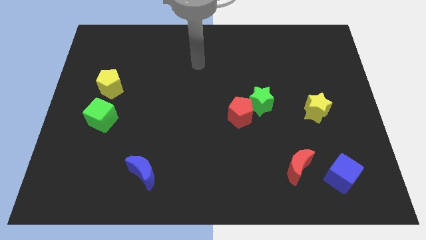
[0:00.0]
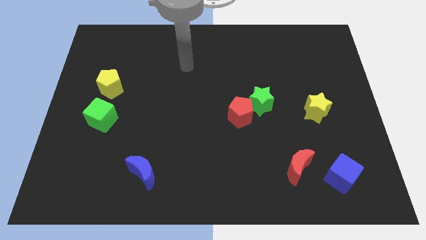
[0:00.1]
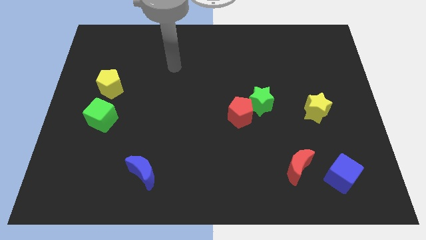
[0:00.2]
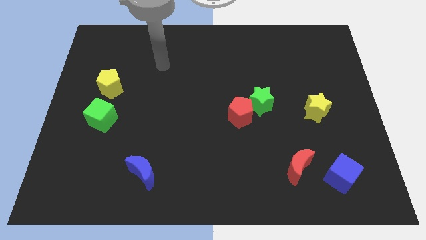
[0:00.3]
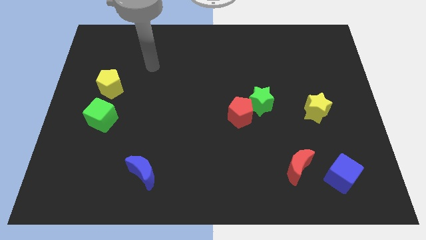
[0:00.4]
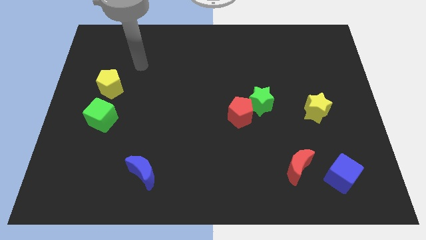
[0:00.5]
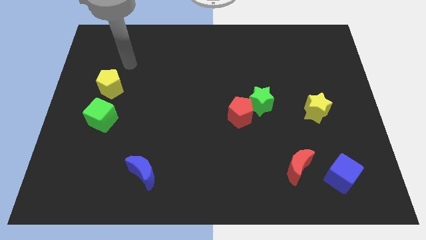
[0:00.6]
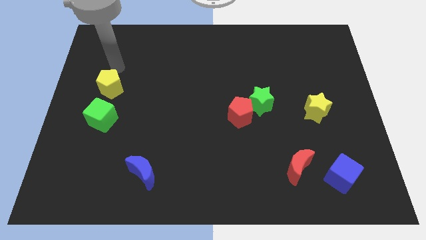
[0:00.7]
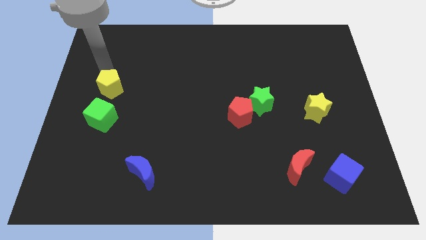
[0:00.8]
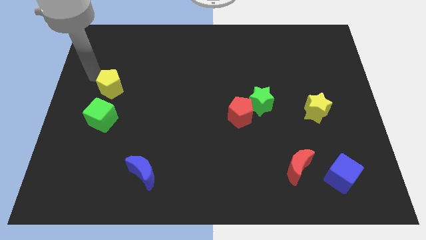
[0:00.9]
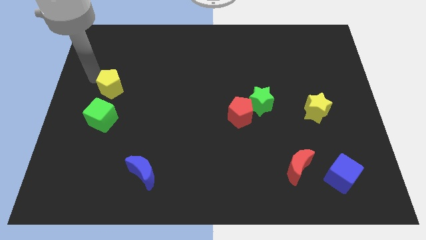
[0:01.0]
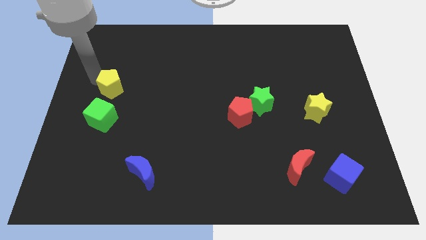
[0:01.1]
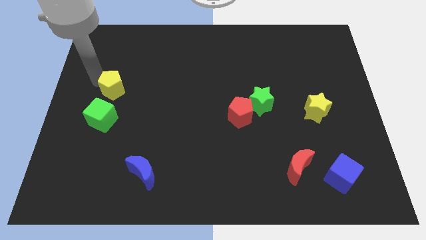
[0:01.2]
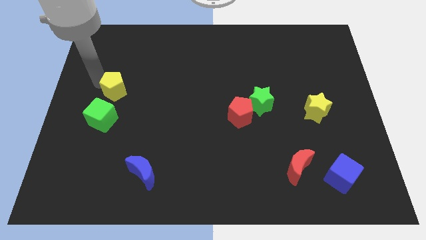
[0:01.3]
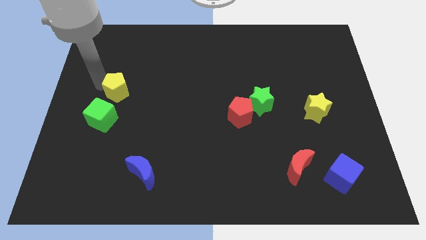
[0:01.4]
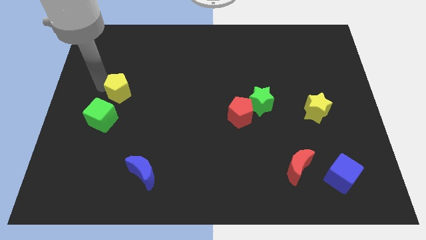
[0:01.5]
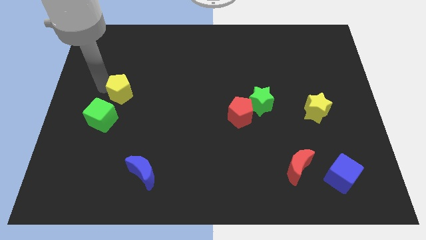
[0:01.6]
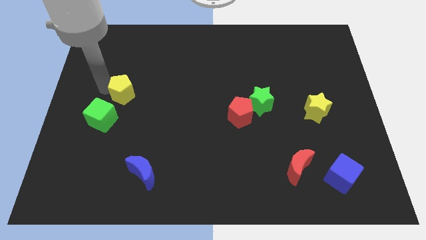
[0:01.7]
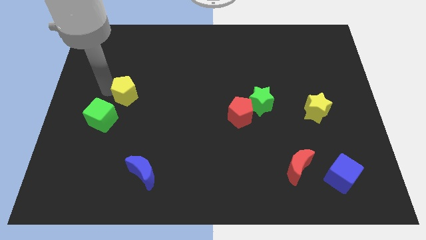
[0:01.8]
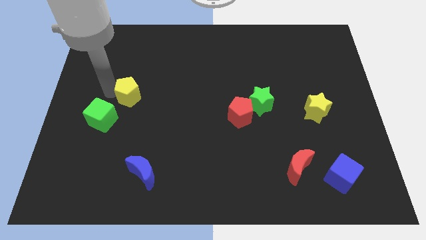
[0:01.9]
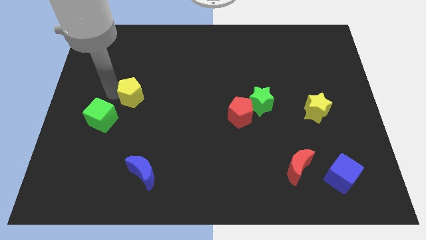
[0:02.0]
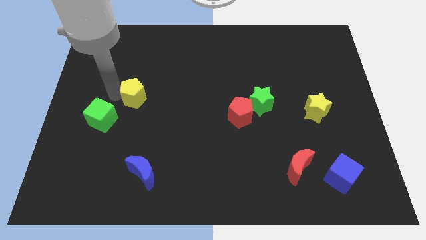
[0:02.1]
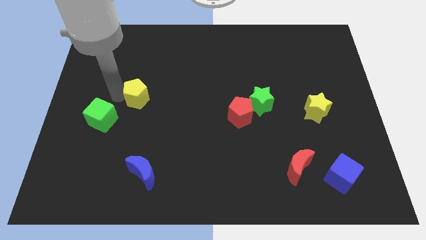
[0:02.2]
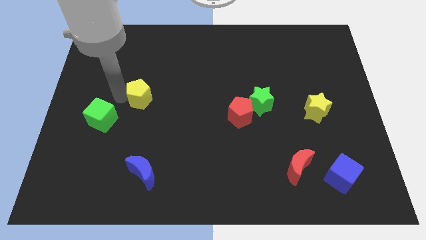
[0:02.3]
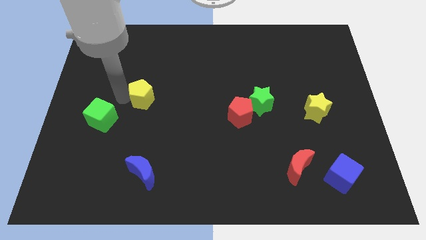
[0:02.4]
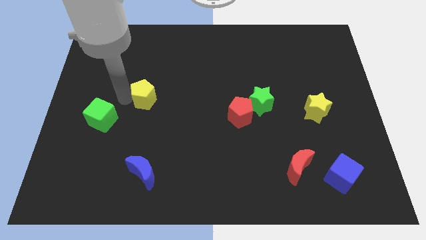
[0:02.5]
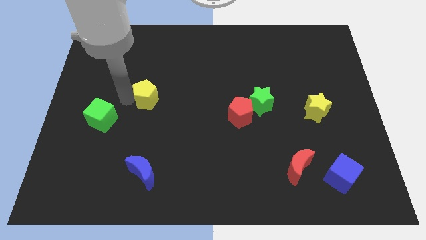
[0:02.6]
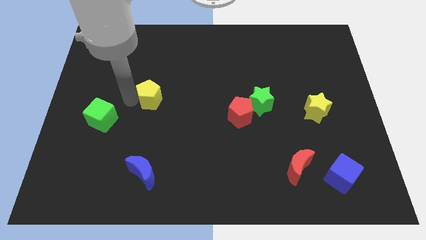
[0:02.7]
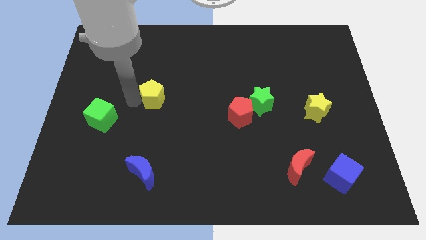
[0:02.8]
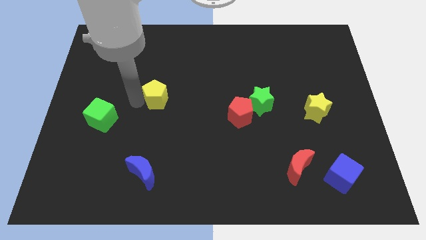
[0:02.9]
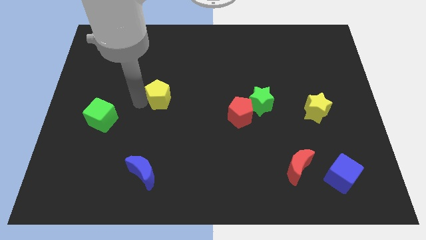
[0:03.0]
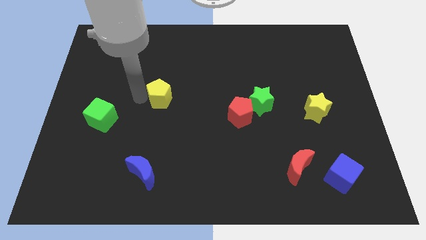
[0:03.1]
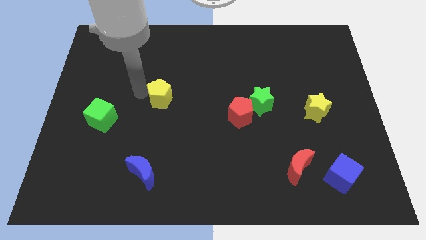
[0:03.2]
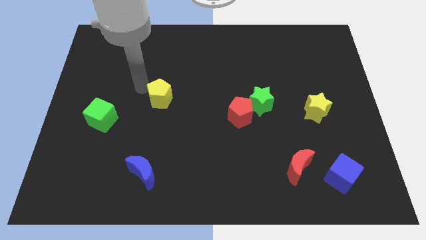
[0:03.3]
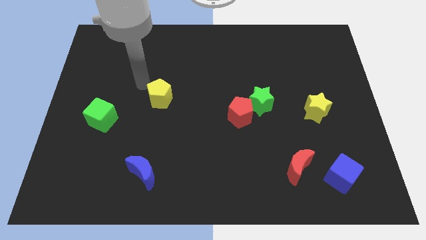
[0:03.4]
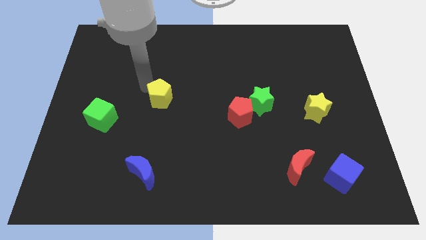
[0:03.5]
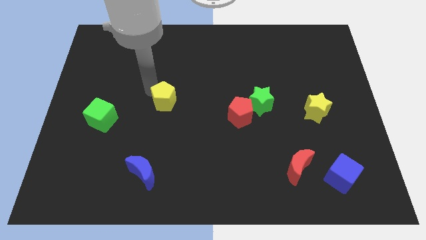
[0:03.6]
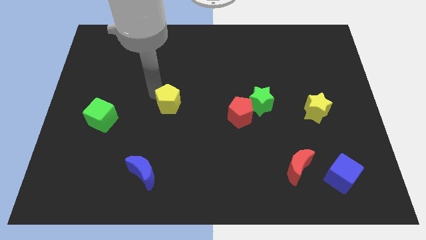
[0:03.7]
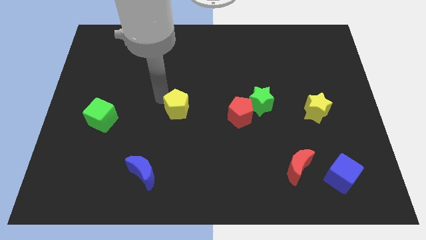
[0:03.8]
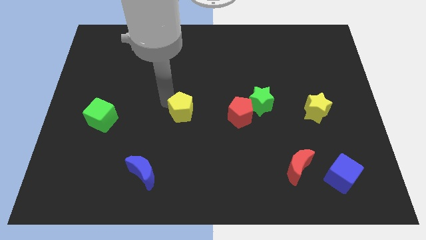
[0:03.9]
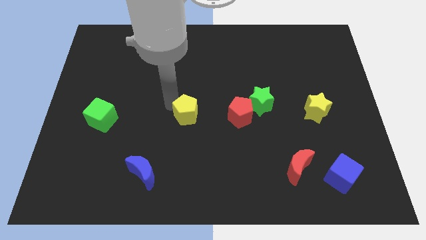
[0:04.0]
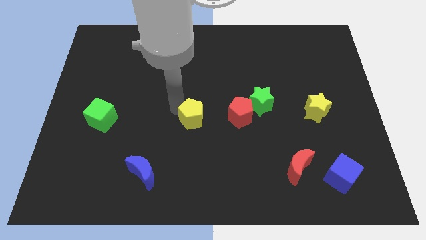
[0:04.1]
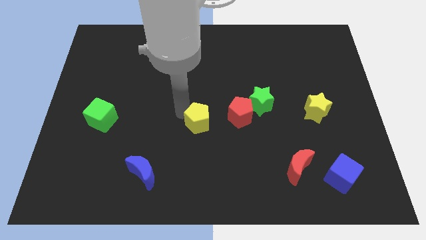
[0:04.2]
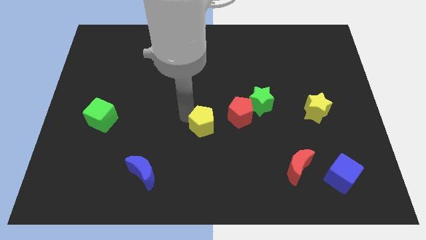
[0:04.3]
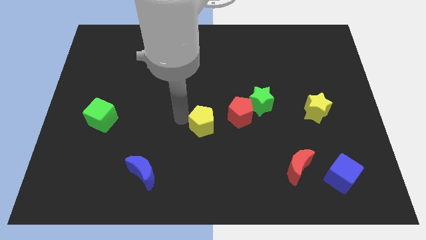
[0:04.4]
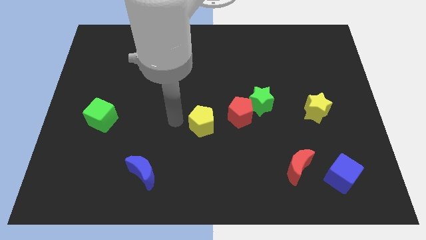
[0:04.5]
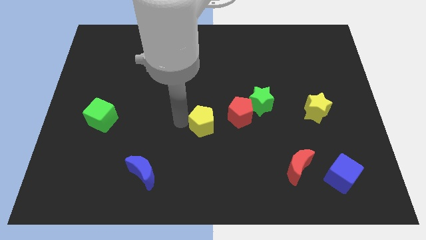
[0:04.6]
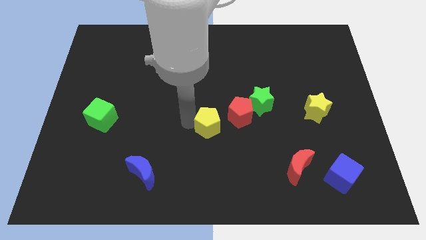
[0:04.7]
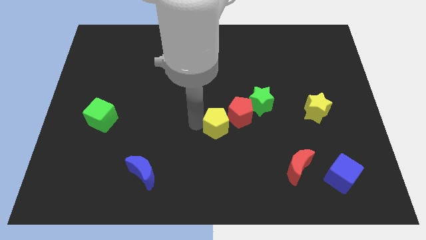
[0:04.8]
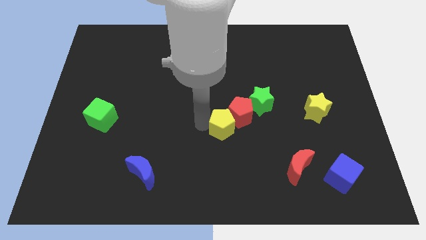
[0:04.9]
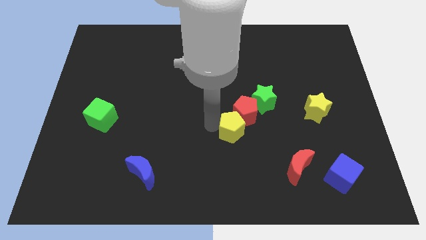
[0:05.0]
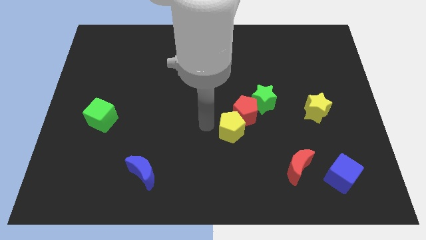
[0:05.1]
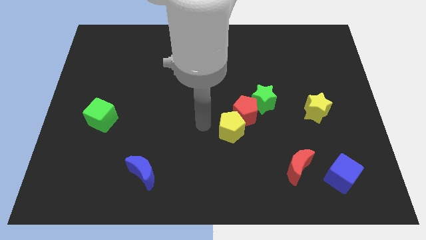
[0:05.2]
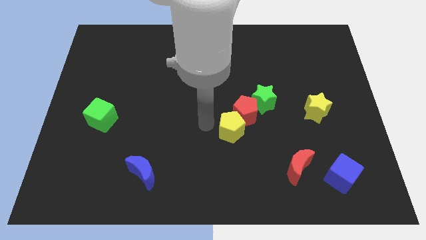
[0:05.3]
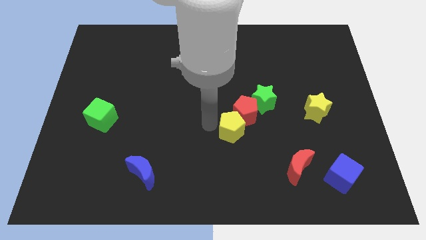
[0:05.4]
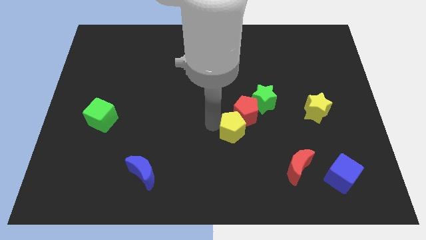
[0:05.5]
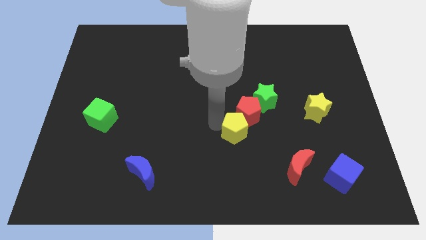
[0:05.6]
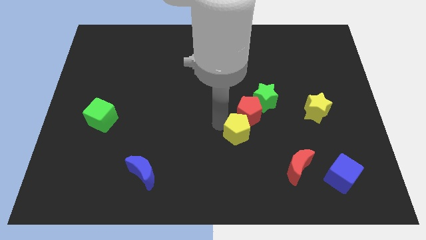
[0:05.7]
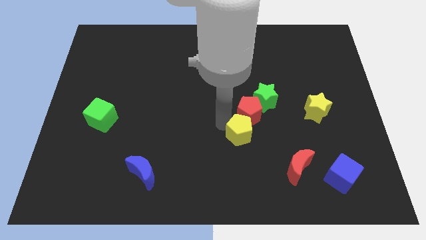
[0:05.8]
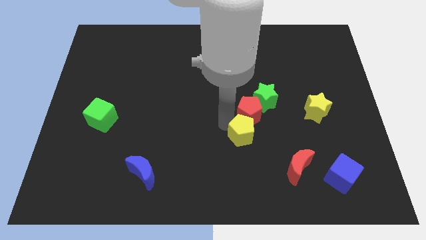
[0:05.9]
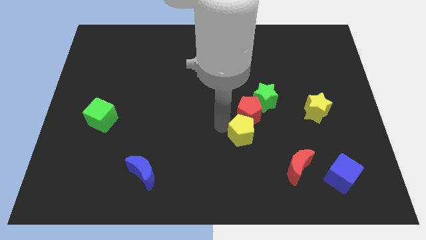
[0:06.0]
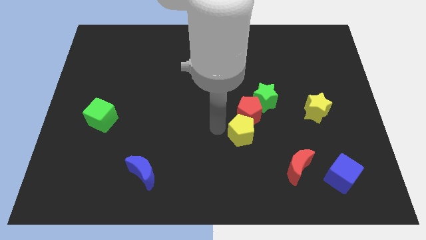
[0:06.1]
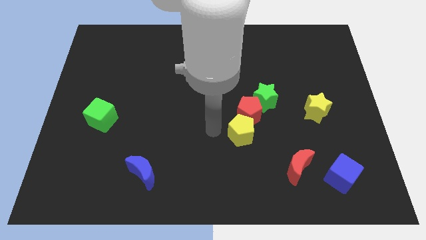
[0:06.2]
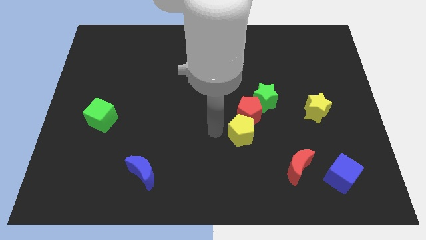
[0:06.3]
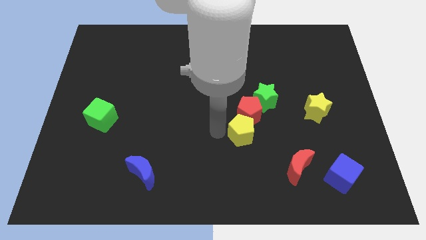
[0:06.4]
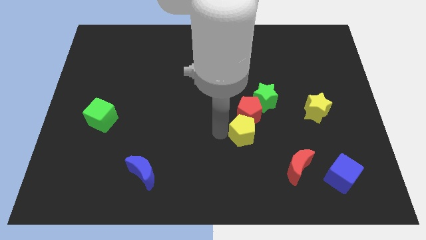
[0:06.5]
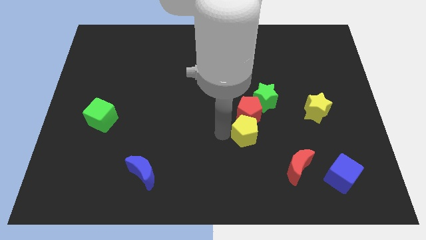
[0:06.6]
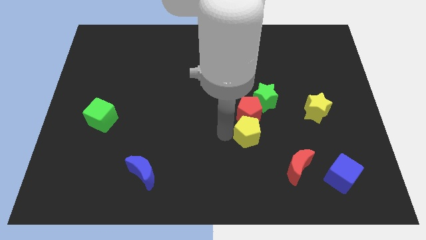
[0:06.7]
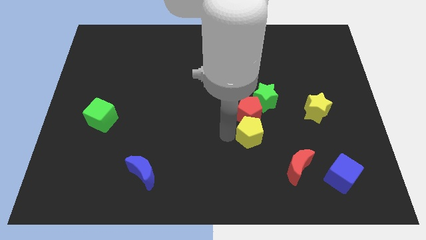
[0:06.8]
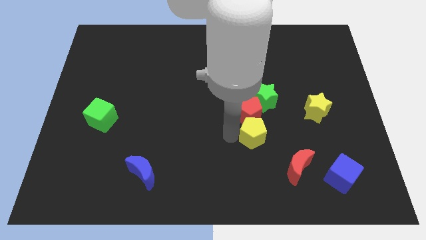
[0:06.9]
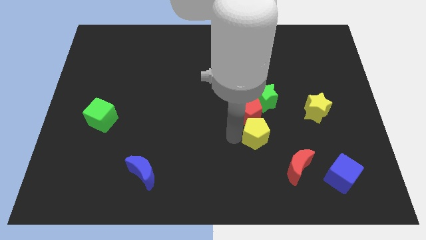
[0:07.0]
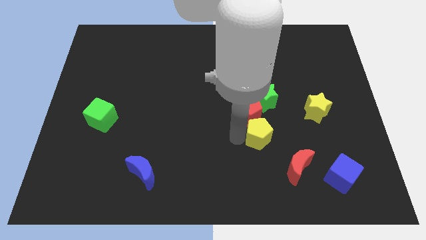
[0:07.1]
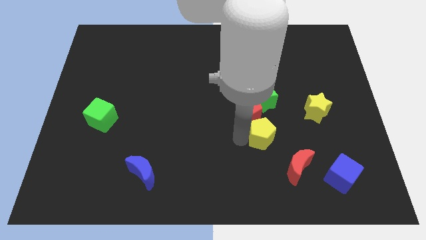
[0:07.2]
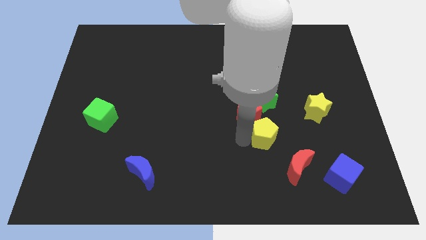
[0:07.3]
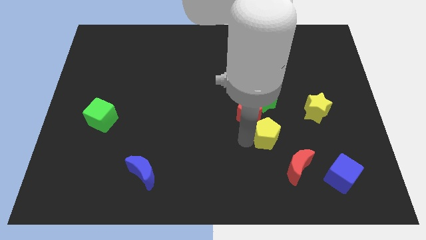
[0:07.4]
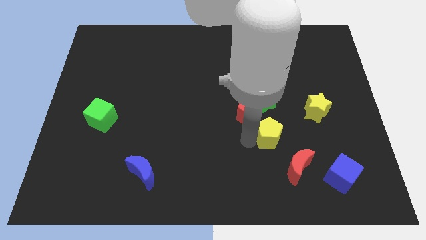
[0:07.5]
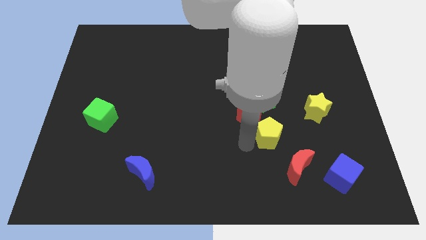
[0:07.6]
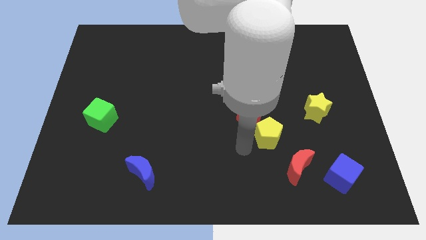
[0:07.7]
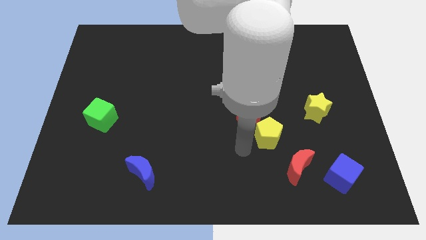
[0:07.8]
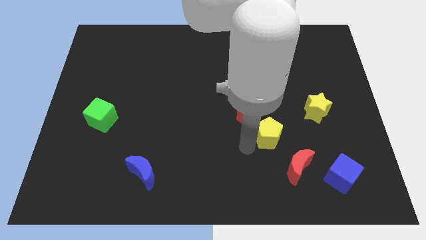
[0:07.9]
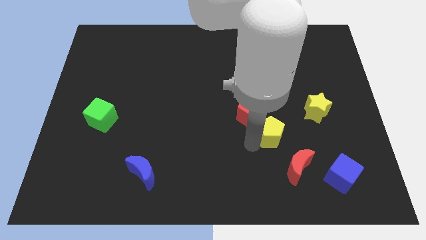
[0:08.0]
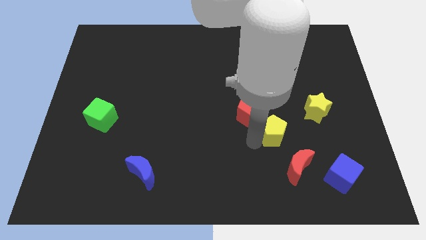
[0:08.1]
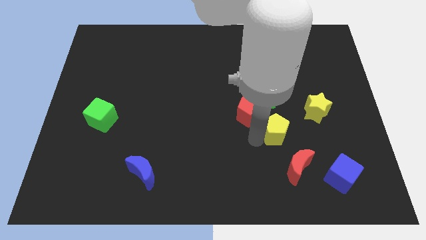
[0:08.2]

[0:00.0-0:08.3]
push the yellow pentagon to the bottom left of the yellow star
